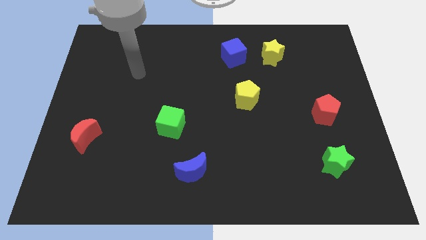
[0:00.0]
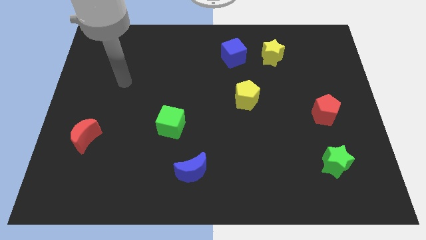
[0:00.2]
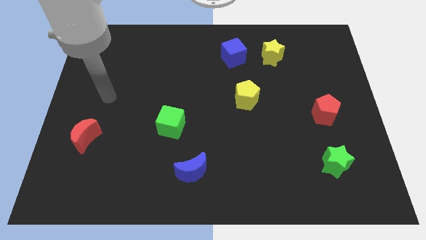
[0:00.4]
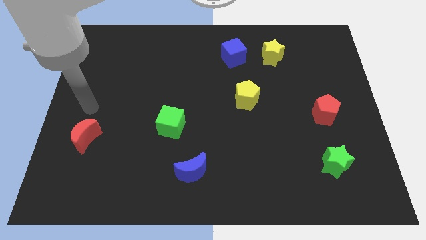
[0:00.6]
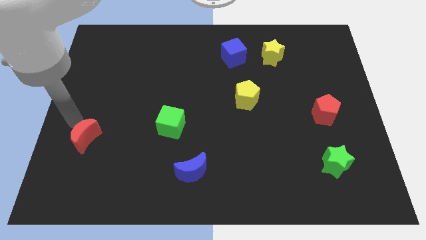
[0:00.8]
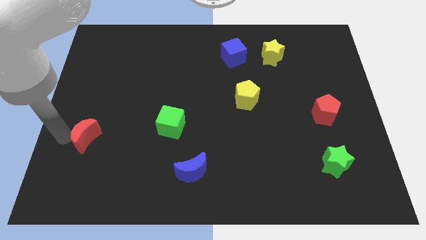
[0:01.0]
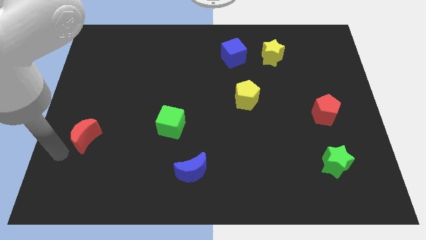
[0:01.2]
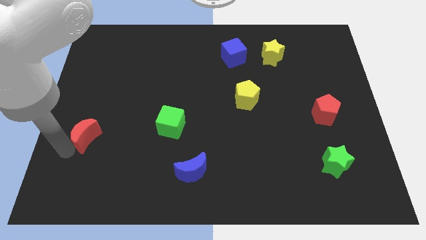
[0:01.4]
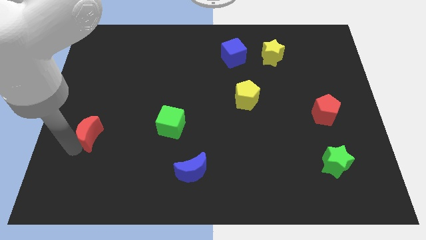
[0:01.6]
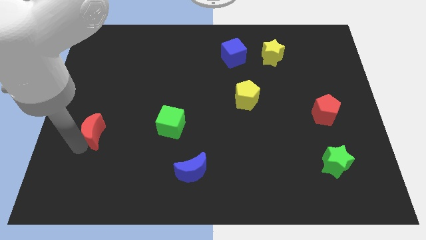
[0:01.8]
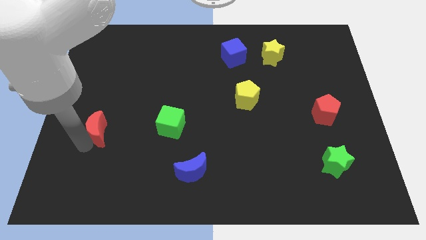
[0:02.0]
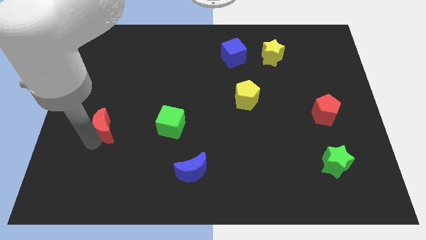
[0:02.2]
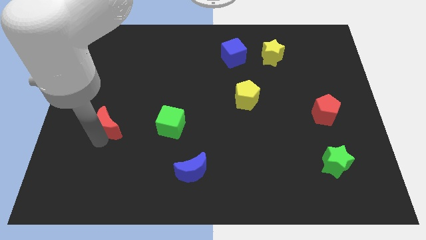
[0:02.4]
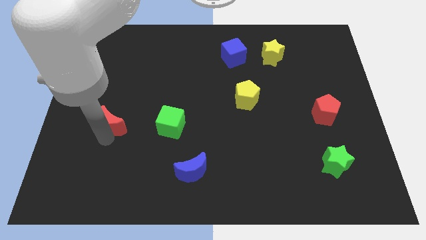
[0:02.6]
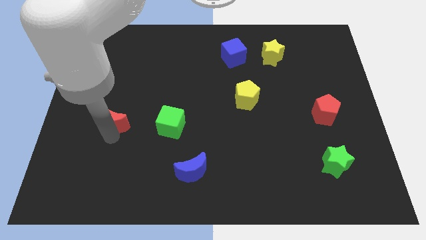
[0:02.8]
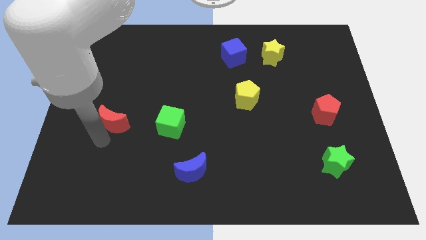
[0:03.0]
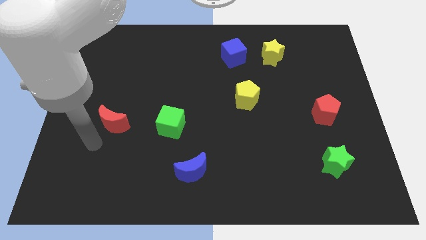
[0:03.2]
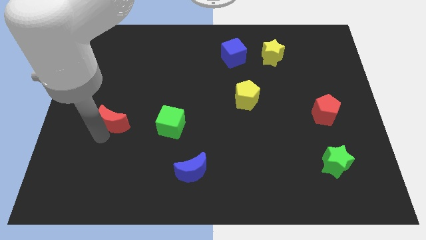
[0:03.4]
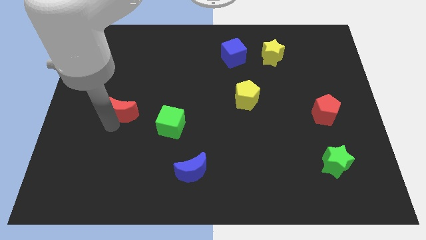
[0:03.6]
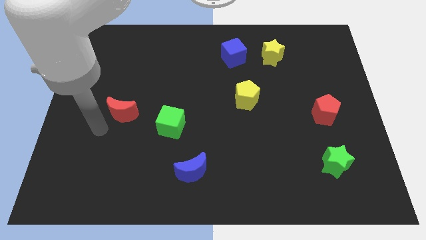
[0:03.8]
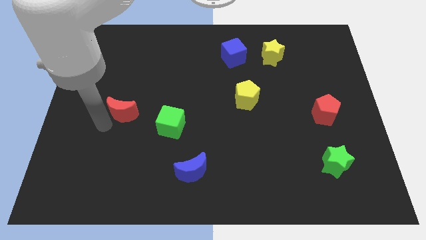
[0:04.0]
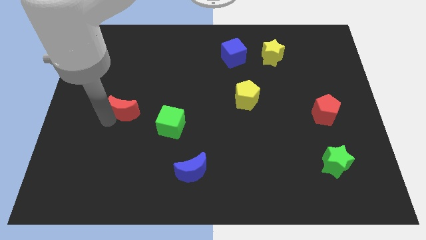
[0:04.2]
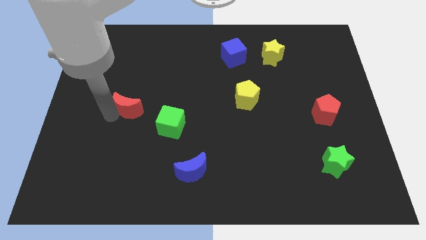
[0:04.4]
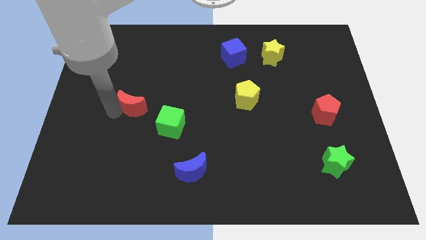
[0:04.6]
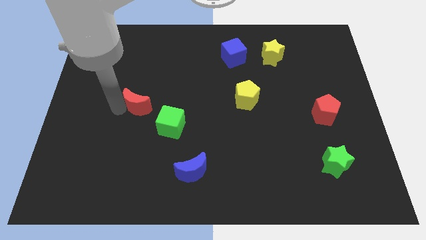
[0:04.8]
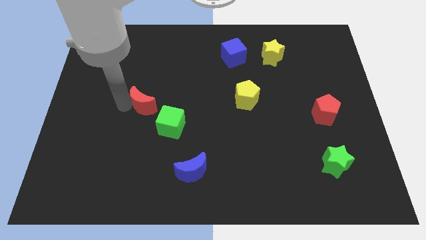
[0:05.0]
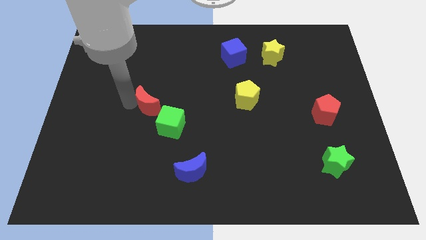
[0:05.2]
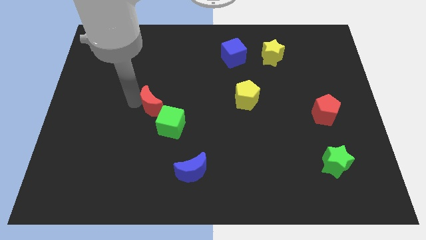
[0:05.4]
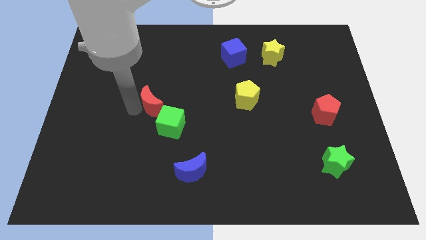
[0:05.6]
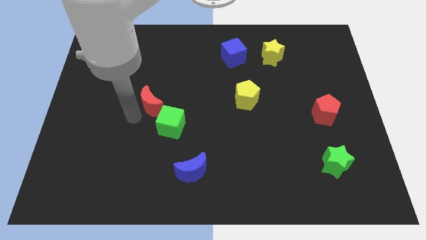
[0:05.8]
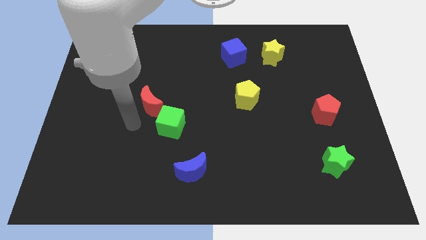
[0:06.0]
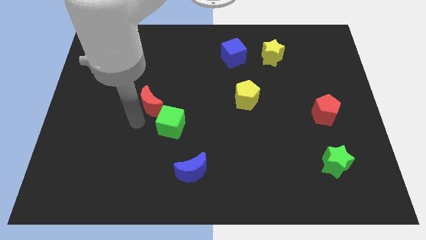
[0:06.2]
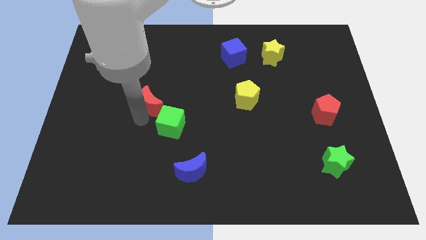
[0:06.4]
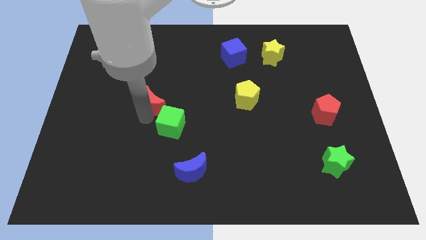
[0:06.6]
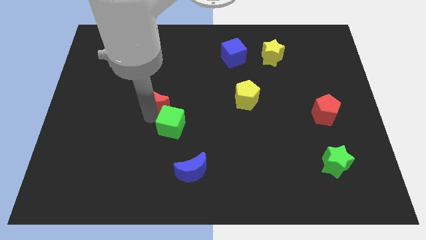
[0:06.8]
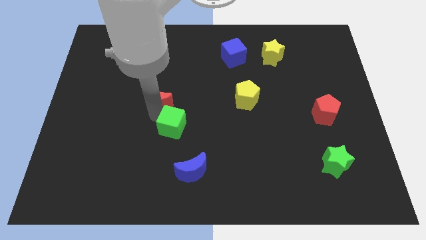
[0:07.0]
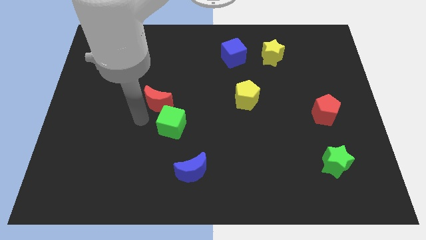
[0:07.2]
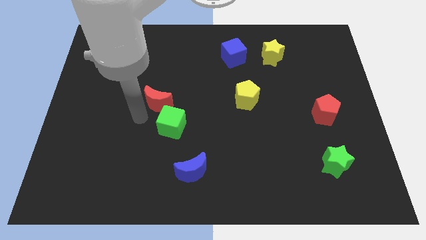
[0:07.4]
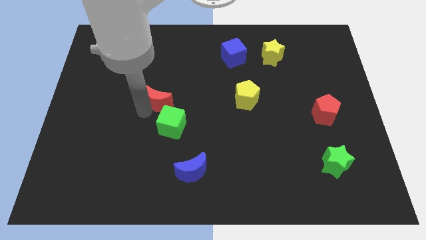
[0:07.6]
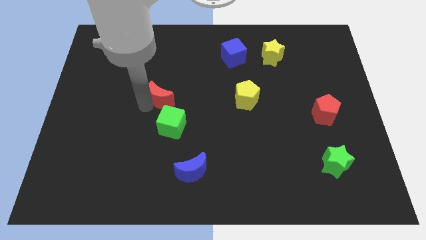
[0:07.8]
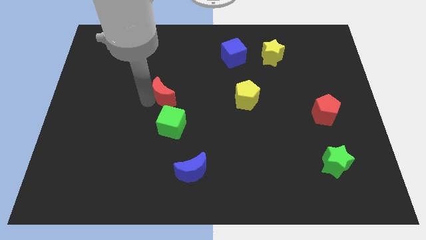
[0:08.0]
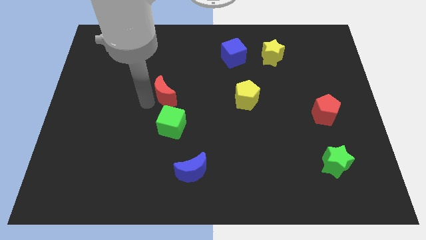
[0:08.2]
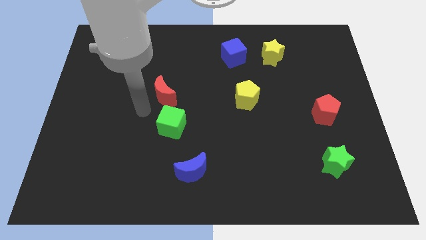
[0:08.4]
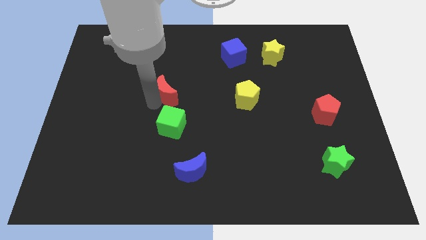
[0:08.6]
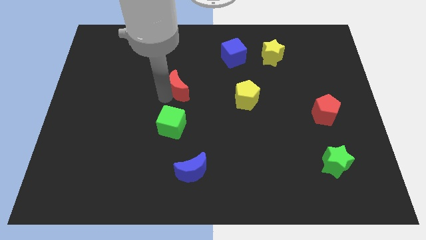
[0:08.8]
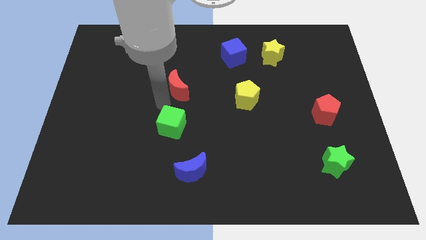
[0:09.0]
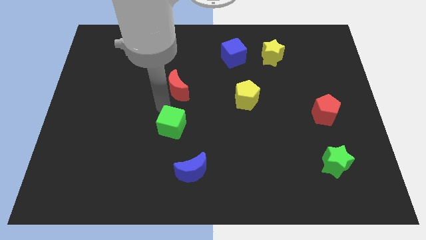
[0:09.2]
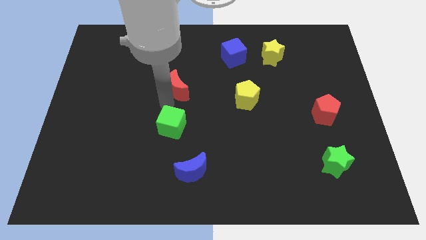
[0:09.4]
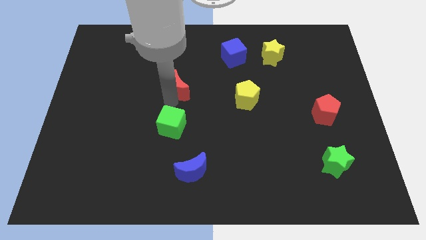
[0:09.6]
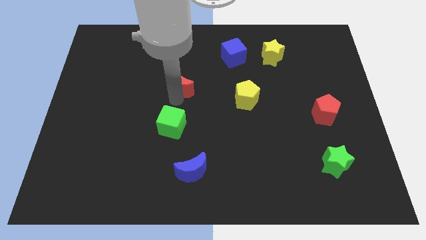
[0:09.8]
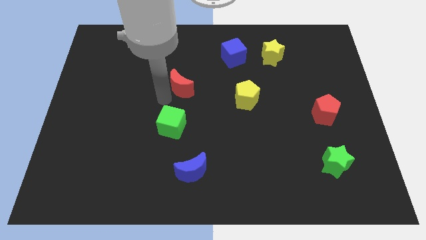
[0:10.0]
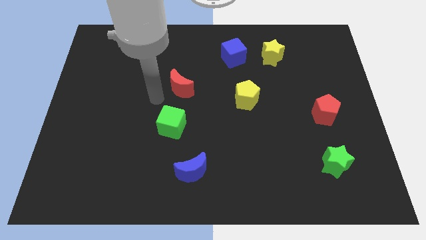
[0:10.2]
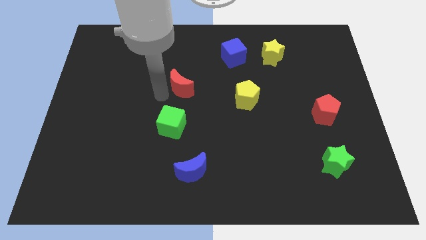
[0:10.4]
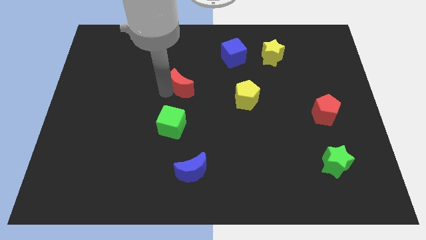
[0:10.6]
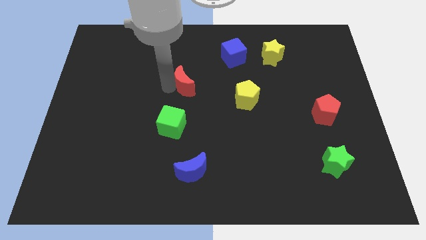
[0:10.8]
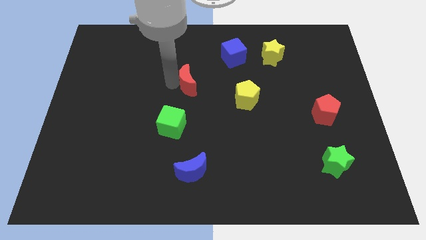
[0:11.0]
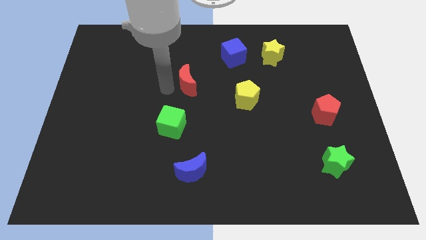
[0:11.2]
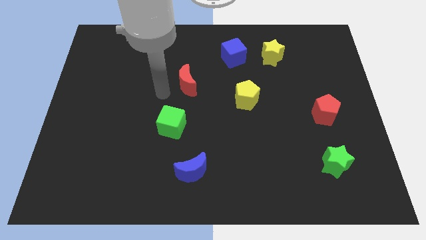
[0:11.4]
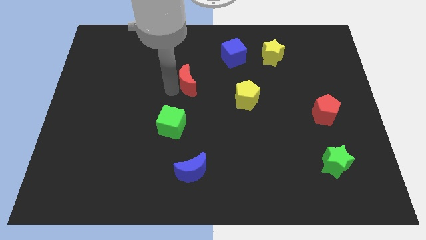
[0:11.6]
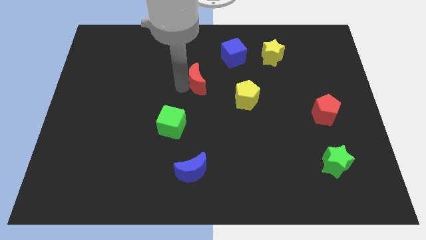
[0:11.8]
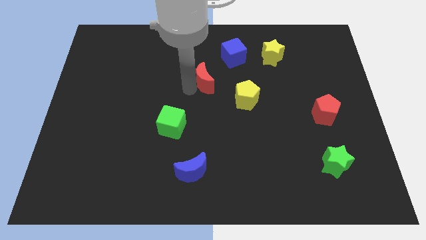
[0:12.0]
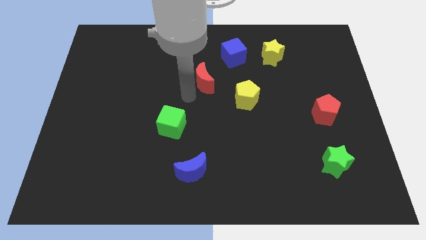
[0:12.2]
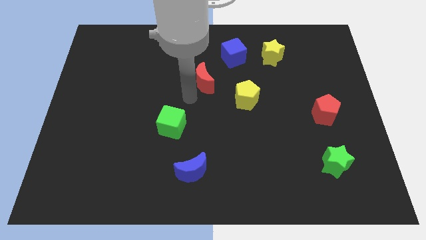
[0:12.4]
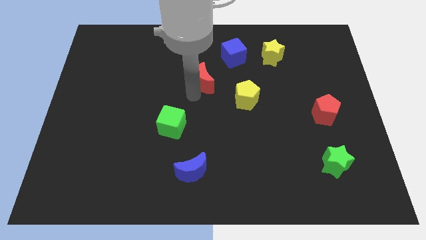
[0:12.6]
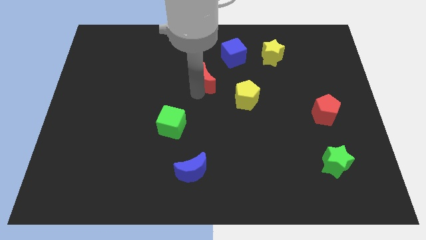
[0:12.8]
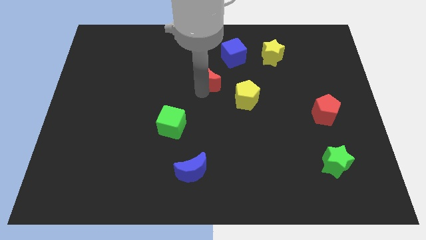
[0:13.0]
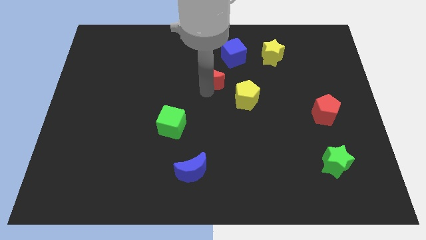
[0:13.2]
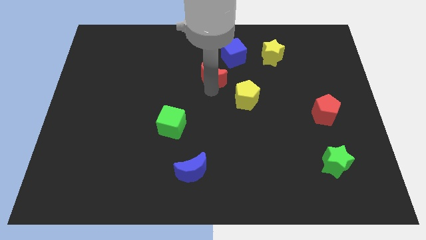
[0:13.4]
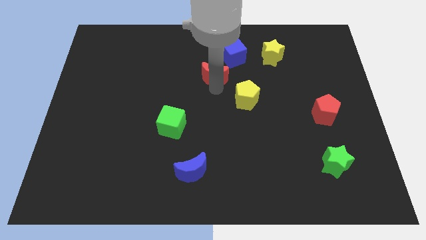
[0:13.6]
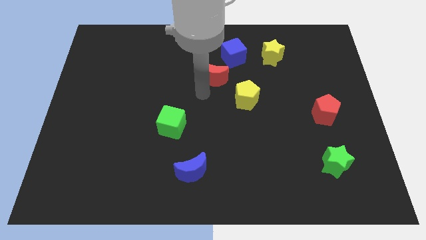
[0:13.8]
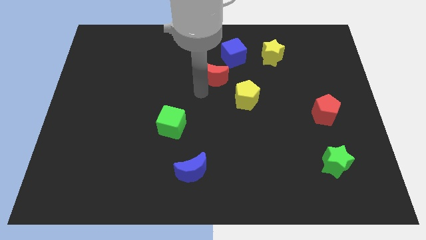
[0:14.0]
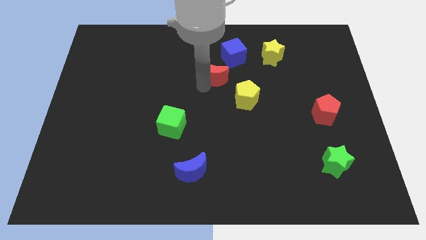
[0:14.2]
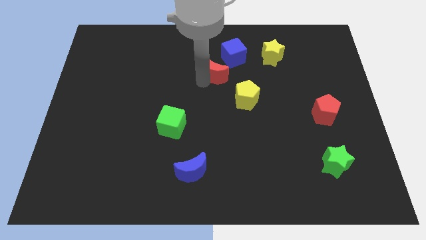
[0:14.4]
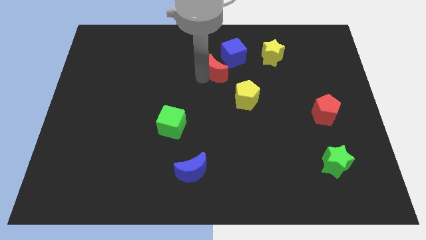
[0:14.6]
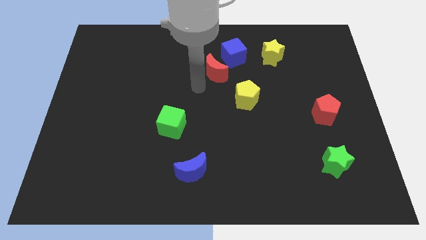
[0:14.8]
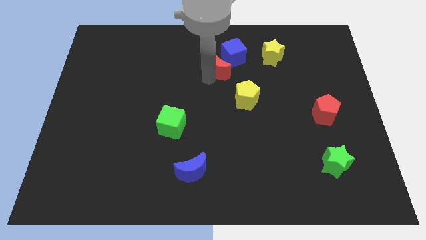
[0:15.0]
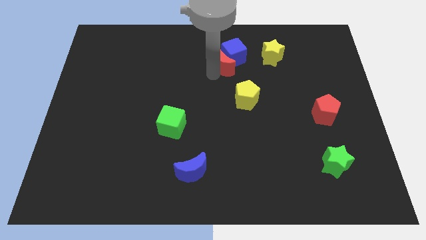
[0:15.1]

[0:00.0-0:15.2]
put the red moon next to the blue cube
